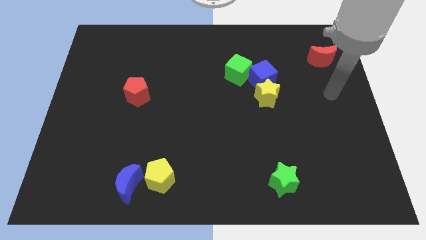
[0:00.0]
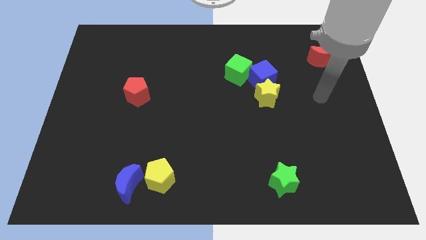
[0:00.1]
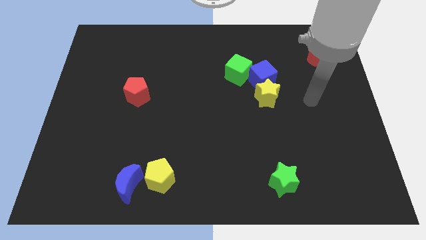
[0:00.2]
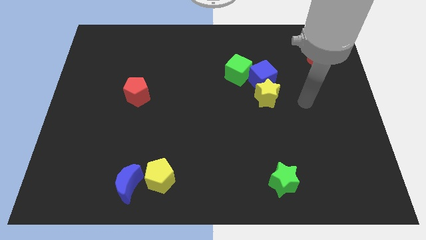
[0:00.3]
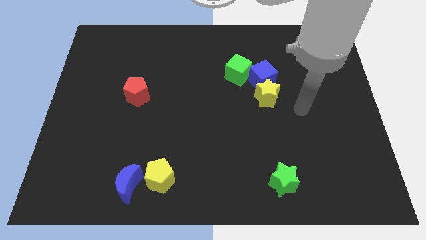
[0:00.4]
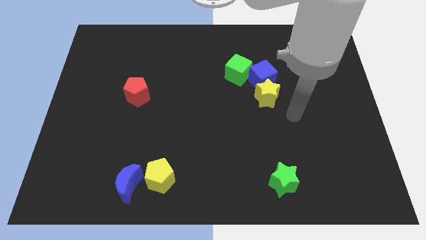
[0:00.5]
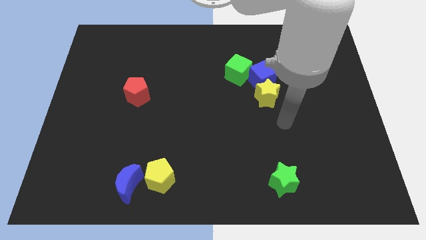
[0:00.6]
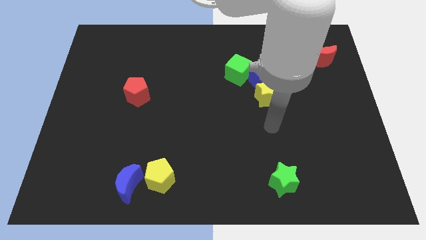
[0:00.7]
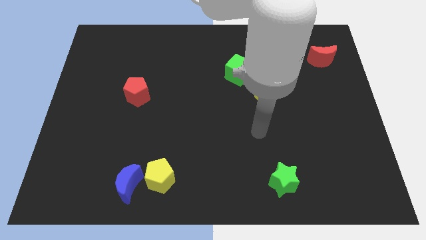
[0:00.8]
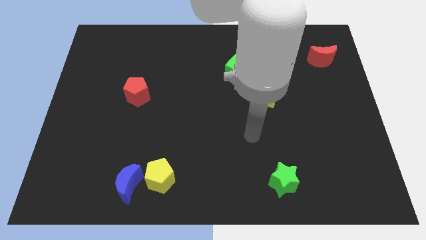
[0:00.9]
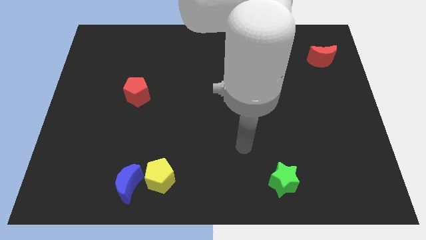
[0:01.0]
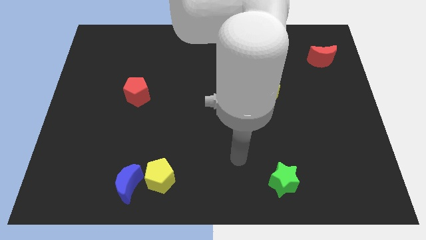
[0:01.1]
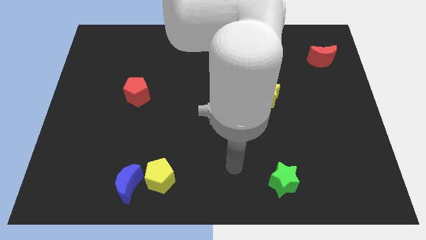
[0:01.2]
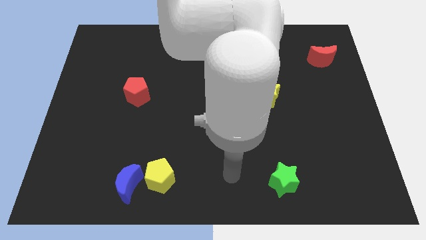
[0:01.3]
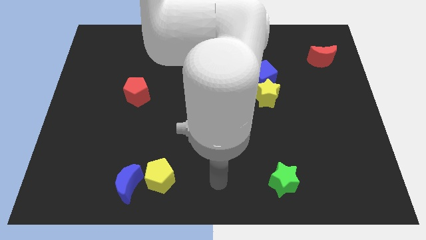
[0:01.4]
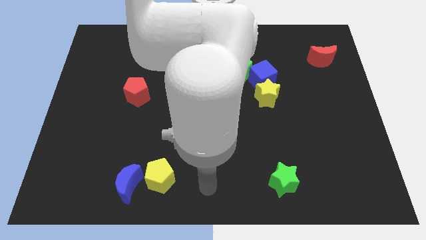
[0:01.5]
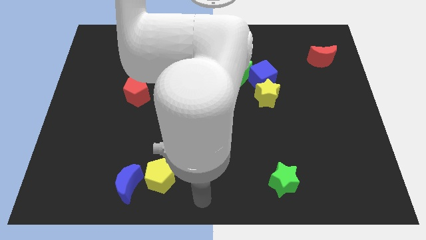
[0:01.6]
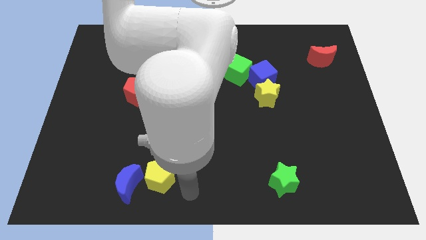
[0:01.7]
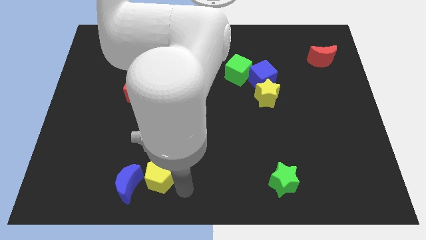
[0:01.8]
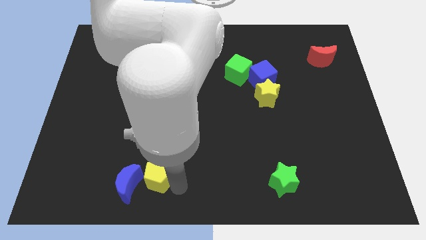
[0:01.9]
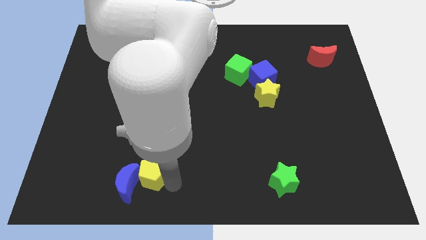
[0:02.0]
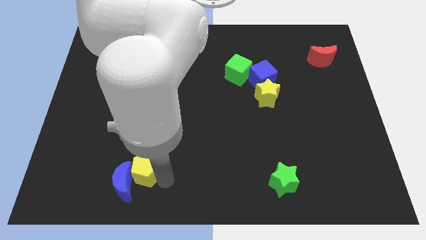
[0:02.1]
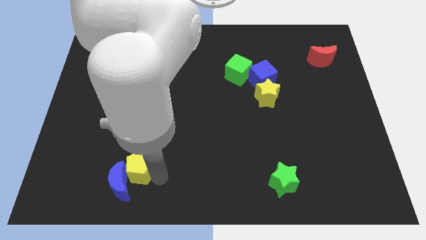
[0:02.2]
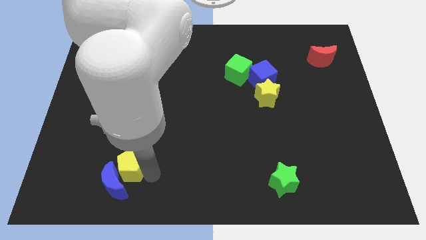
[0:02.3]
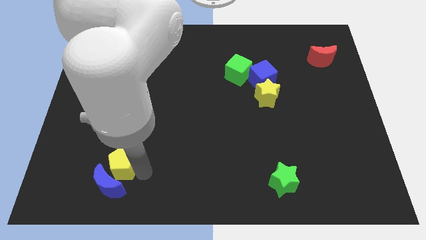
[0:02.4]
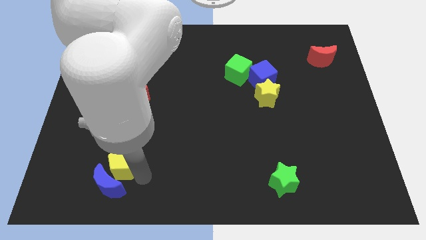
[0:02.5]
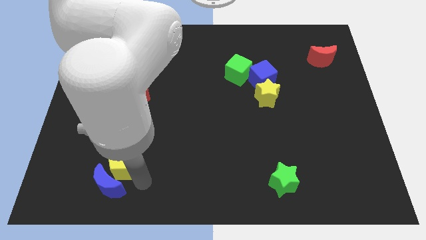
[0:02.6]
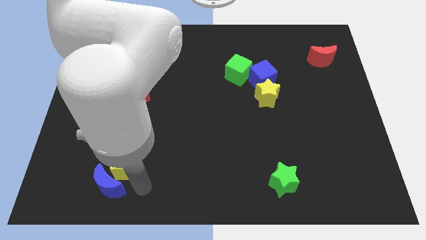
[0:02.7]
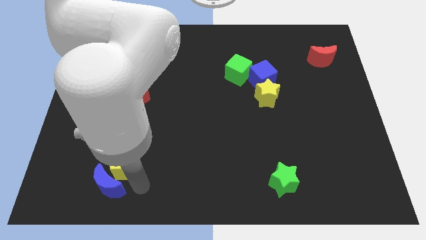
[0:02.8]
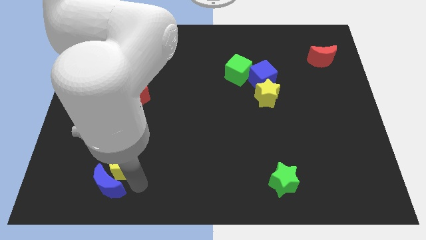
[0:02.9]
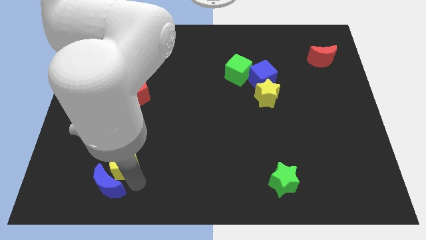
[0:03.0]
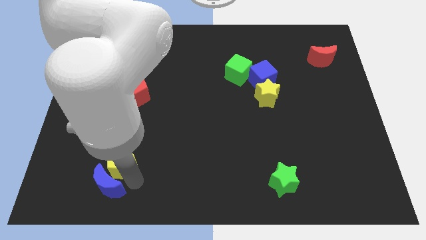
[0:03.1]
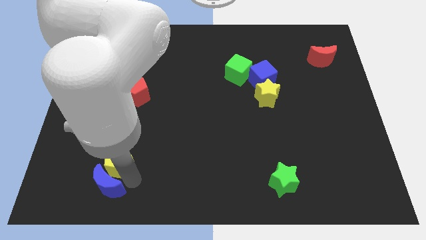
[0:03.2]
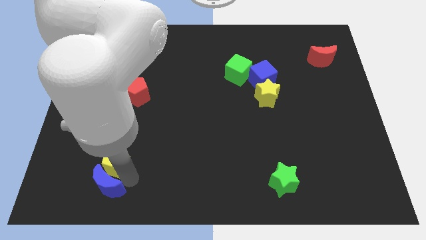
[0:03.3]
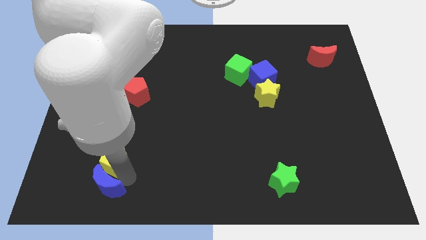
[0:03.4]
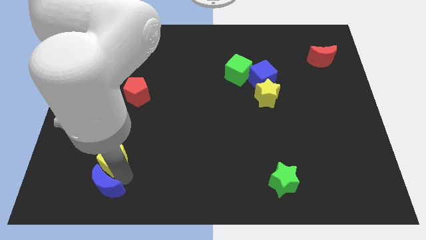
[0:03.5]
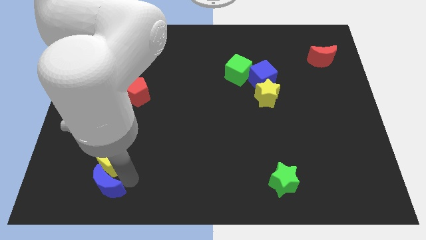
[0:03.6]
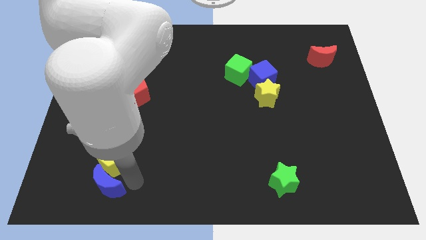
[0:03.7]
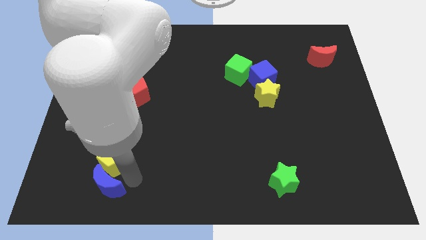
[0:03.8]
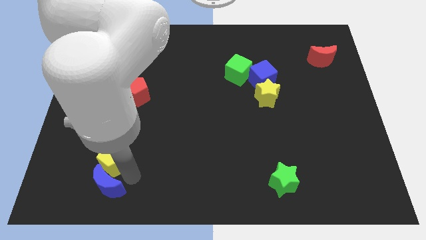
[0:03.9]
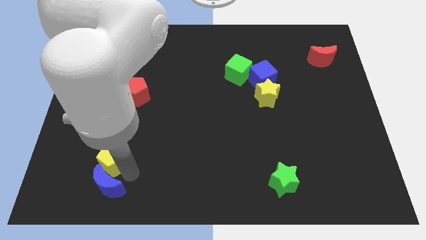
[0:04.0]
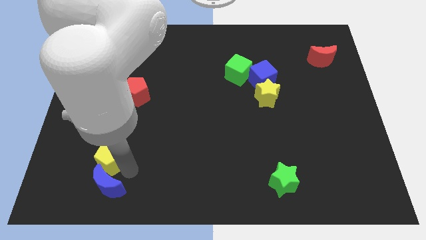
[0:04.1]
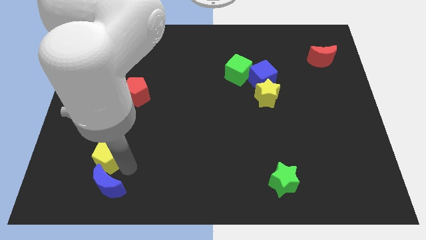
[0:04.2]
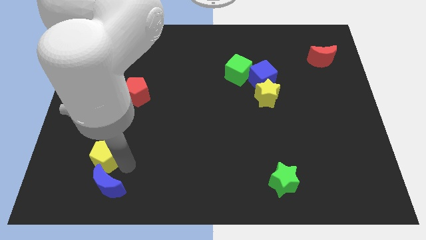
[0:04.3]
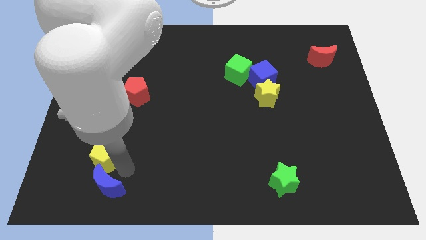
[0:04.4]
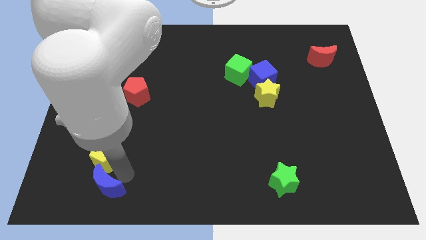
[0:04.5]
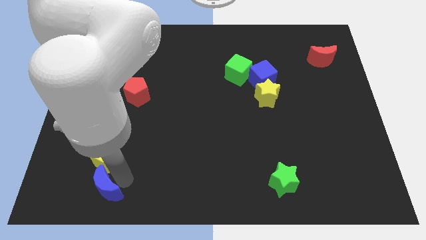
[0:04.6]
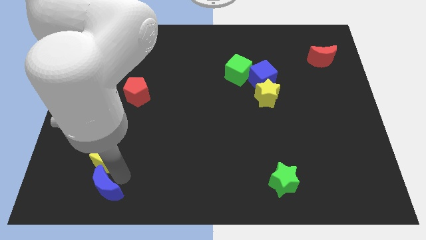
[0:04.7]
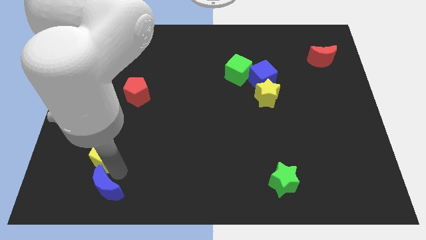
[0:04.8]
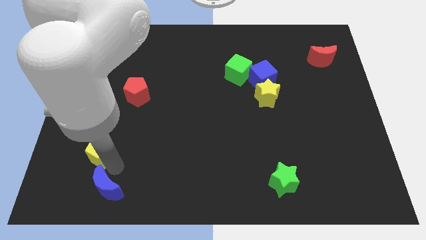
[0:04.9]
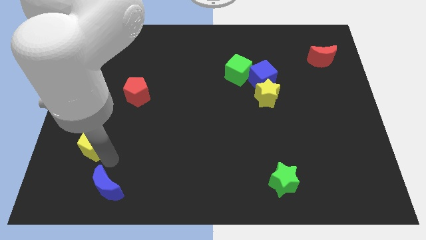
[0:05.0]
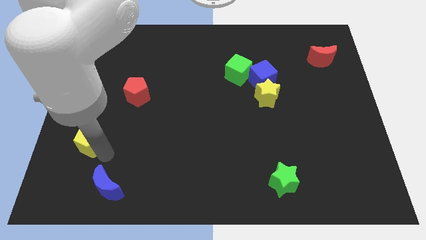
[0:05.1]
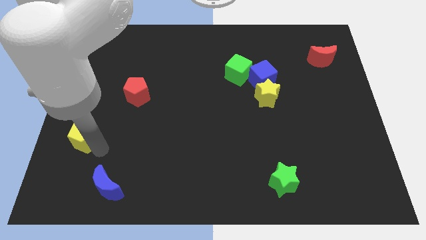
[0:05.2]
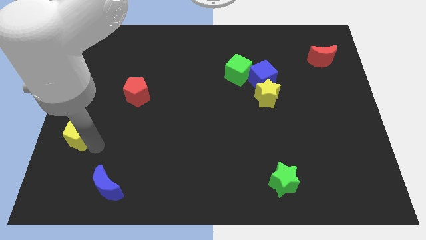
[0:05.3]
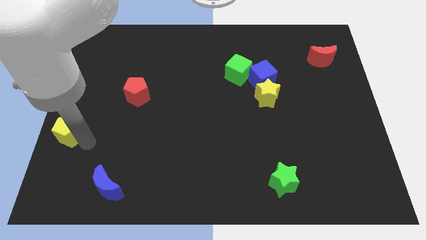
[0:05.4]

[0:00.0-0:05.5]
put the yellow pentagon to the left side of the board
